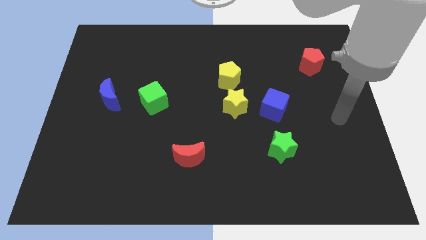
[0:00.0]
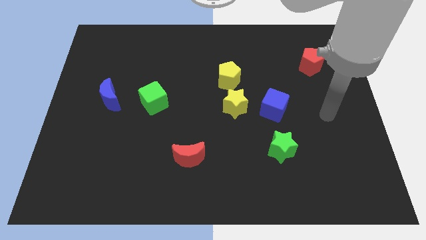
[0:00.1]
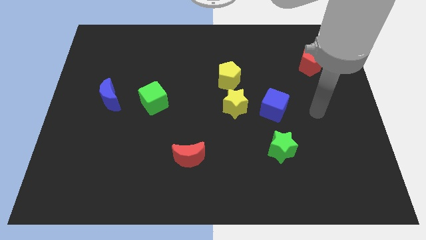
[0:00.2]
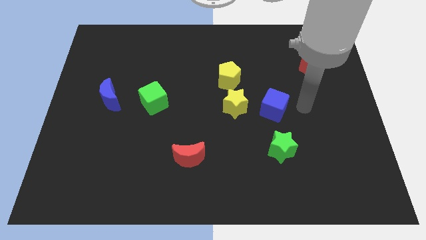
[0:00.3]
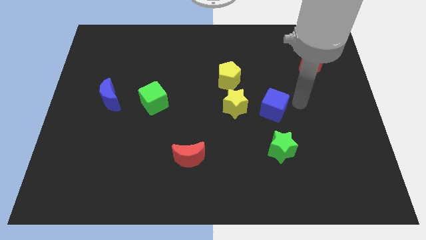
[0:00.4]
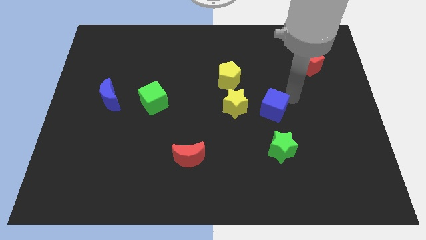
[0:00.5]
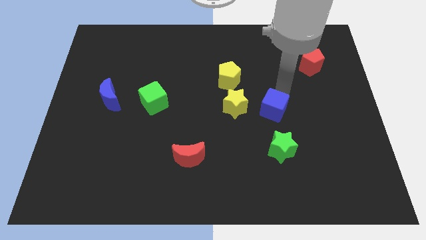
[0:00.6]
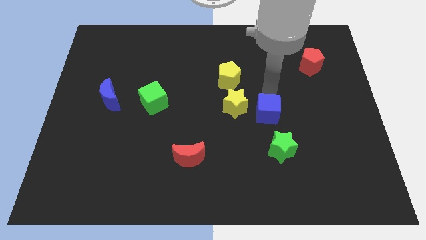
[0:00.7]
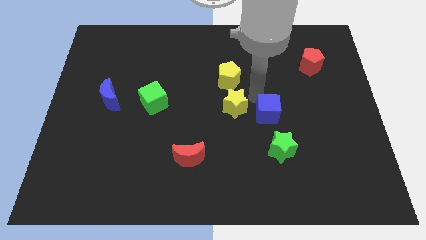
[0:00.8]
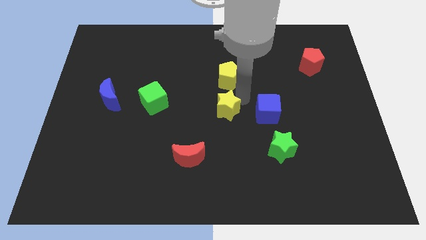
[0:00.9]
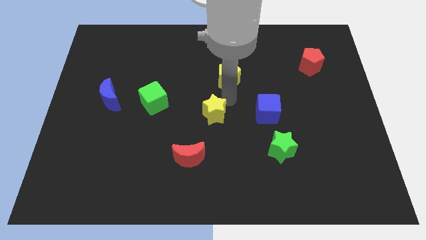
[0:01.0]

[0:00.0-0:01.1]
pull the yellow pentagon apart from the yellow star

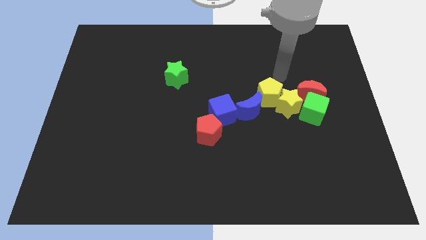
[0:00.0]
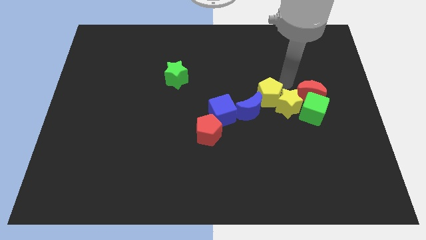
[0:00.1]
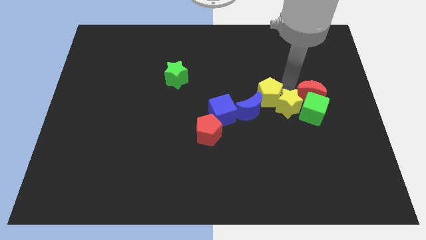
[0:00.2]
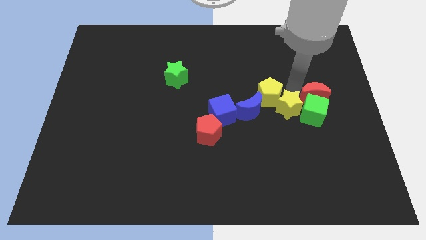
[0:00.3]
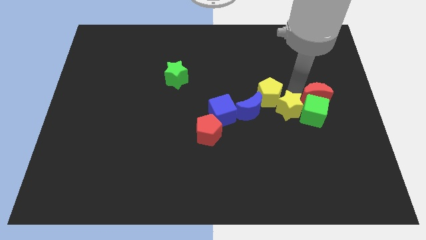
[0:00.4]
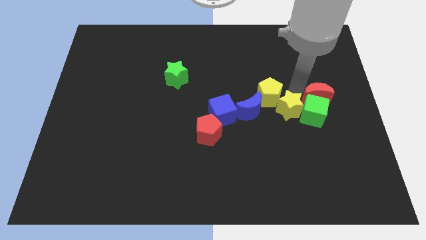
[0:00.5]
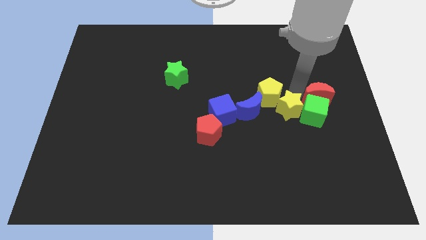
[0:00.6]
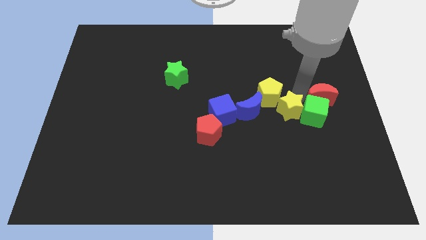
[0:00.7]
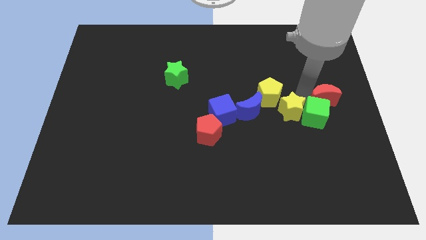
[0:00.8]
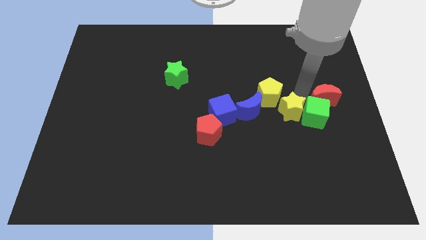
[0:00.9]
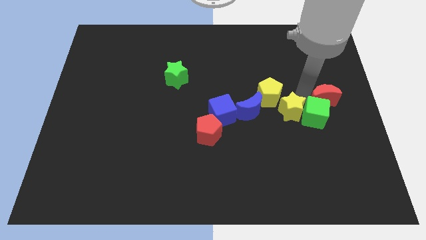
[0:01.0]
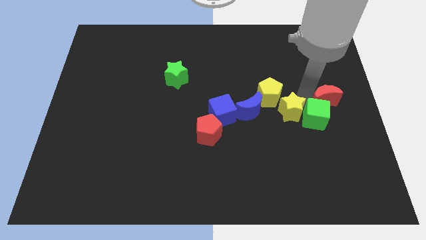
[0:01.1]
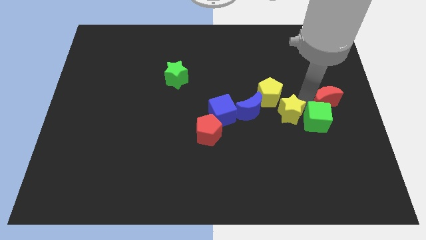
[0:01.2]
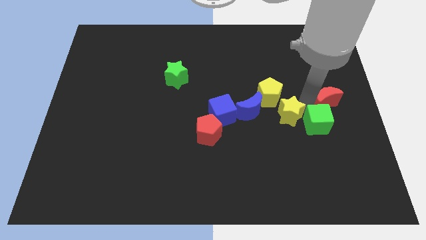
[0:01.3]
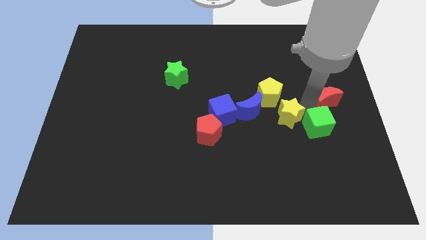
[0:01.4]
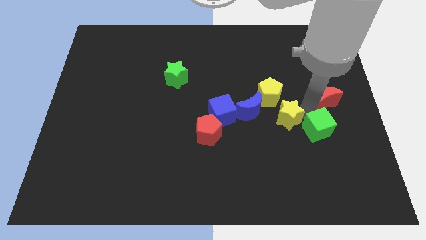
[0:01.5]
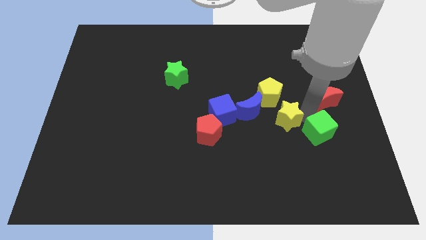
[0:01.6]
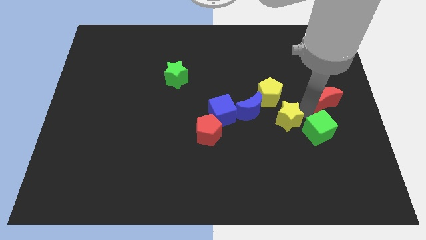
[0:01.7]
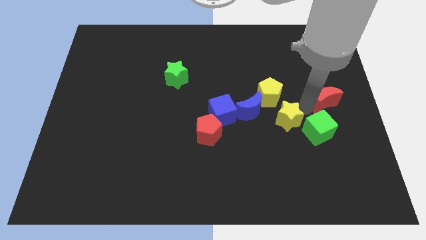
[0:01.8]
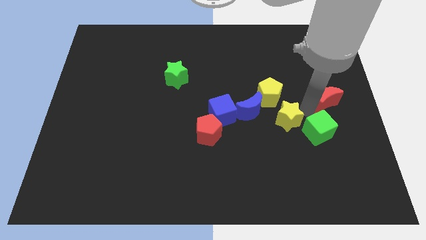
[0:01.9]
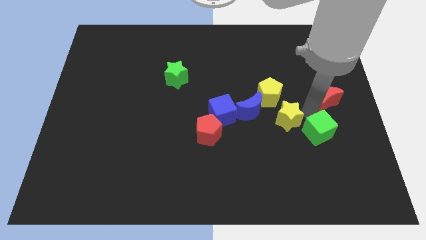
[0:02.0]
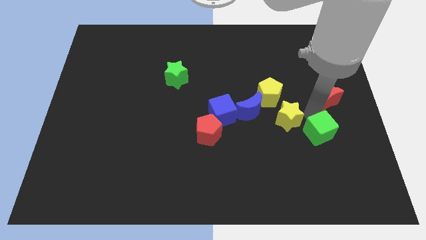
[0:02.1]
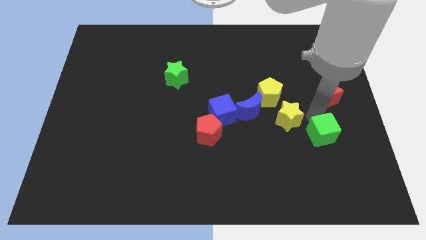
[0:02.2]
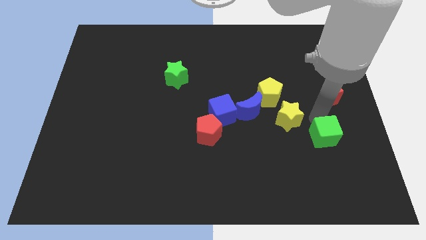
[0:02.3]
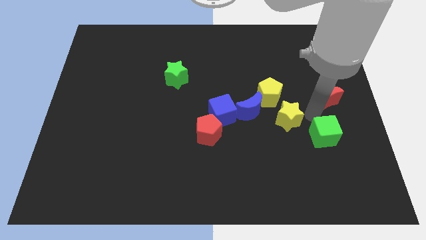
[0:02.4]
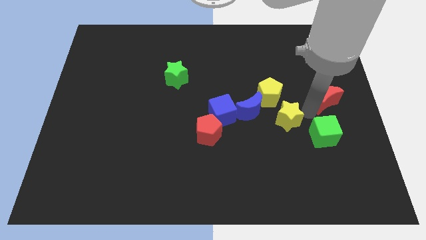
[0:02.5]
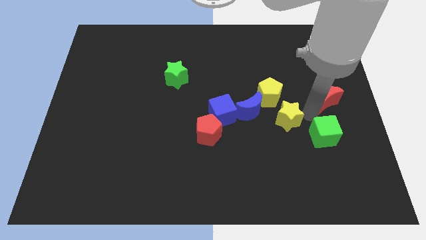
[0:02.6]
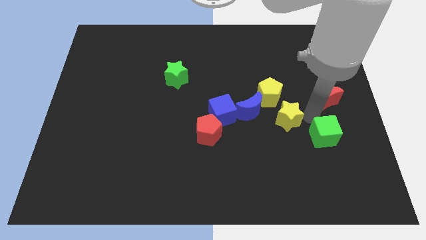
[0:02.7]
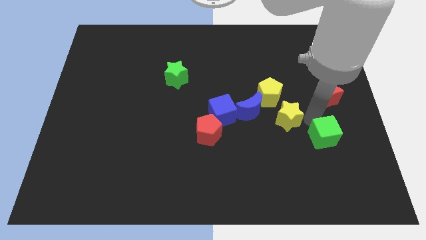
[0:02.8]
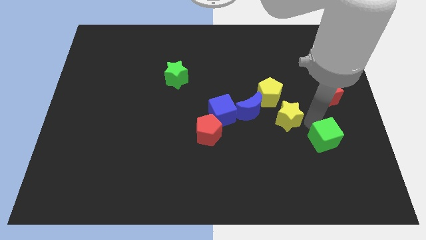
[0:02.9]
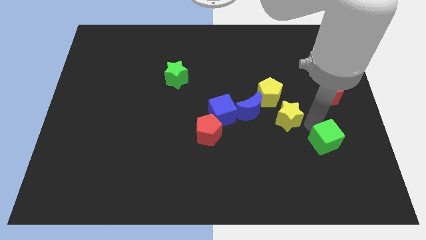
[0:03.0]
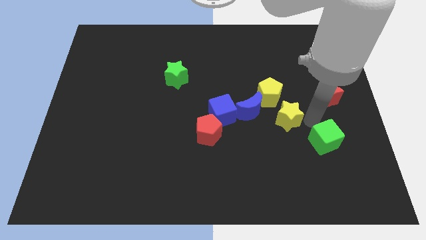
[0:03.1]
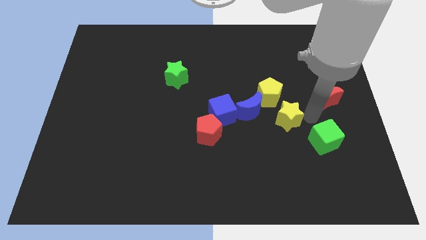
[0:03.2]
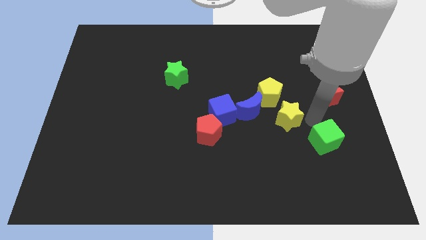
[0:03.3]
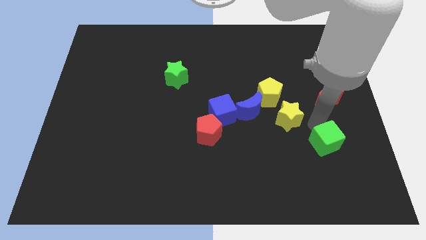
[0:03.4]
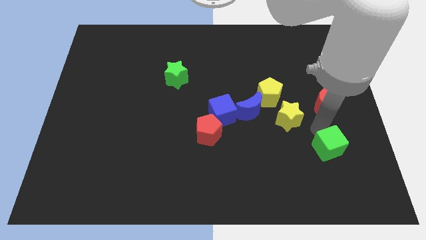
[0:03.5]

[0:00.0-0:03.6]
move the green cube away from the red moon and yellow star

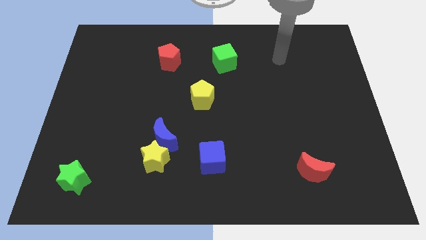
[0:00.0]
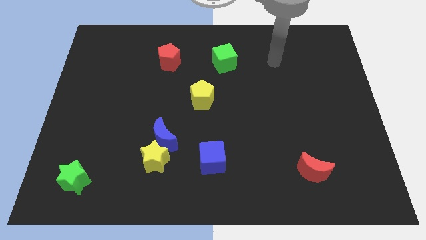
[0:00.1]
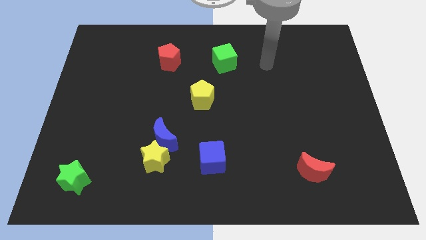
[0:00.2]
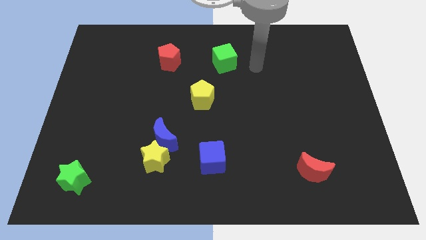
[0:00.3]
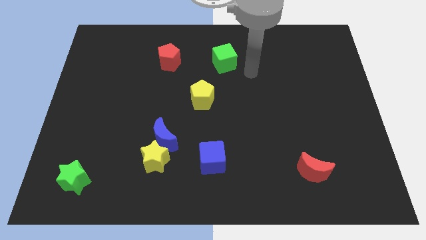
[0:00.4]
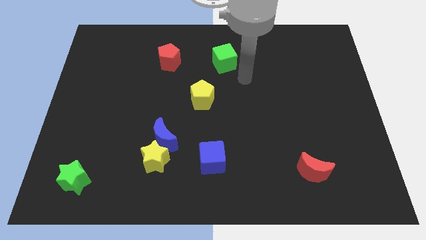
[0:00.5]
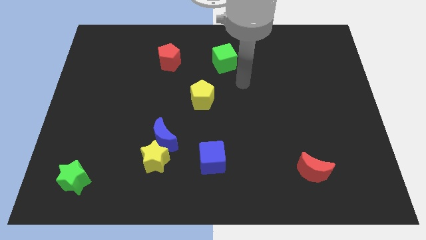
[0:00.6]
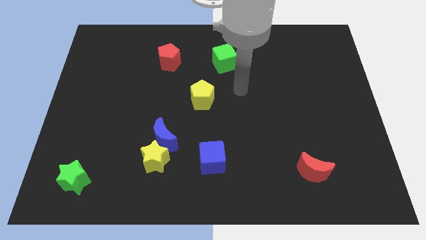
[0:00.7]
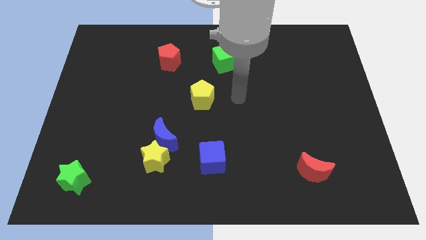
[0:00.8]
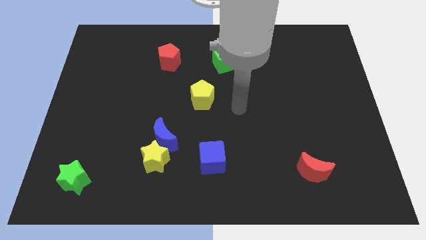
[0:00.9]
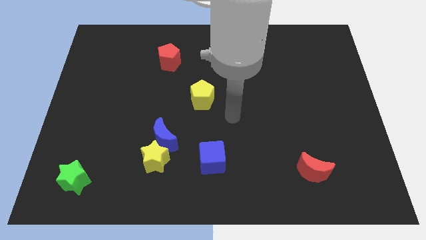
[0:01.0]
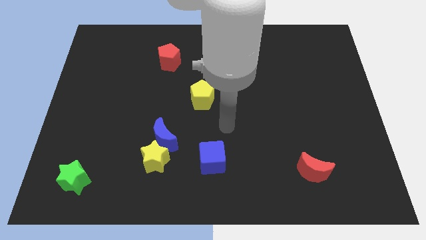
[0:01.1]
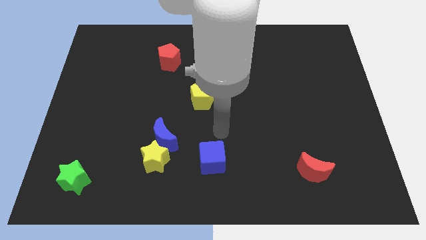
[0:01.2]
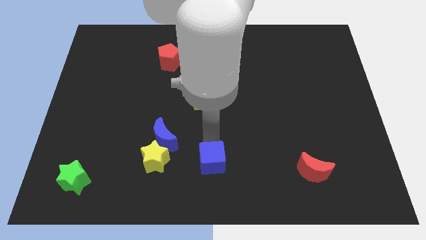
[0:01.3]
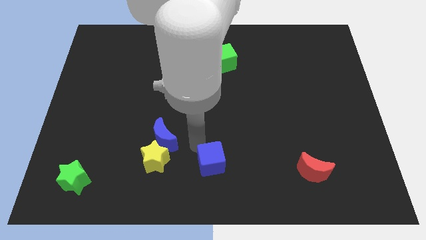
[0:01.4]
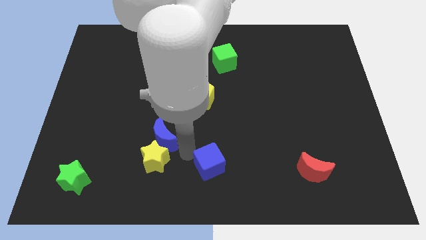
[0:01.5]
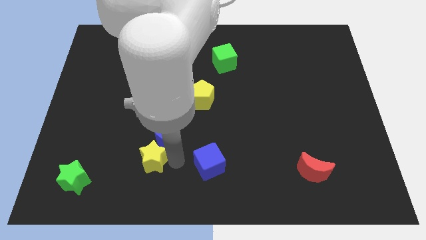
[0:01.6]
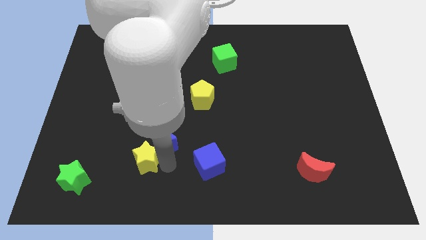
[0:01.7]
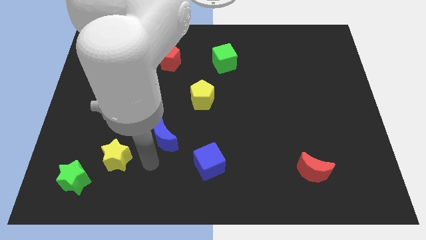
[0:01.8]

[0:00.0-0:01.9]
separate the blue moon from the yellow star

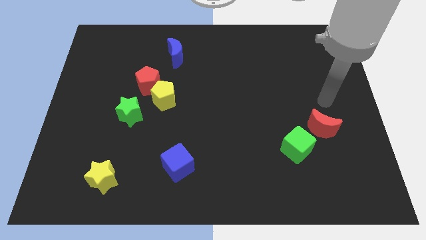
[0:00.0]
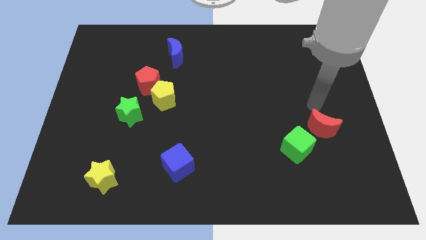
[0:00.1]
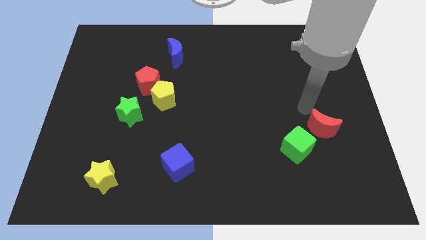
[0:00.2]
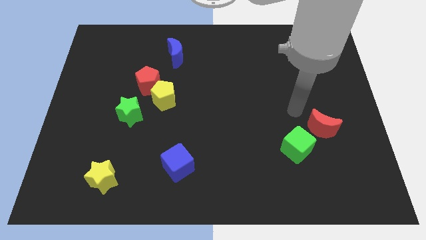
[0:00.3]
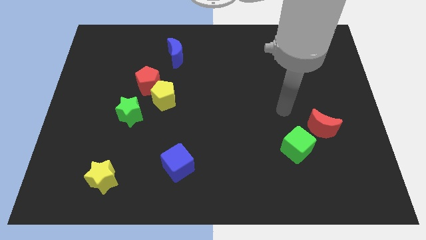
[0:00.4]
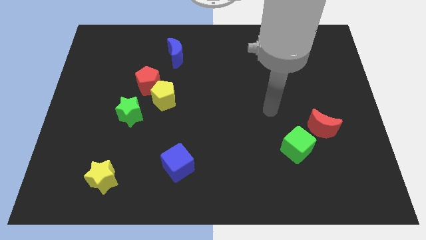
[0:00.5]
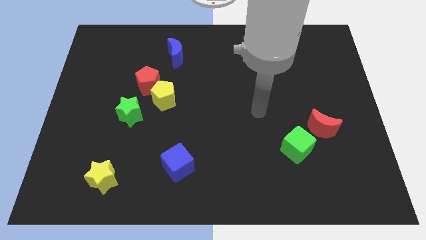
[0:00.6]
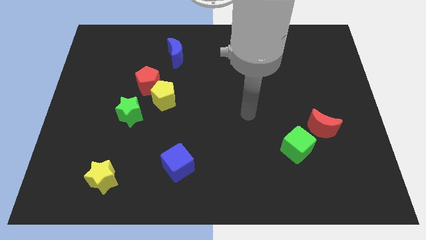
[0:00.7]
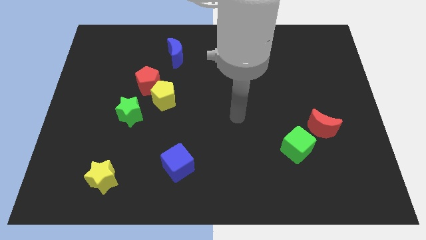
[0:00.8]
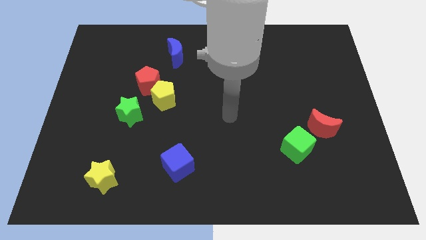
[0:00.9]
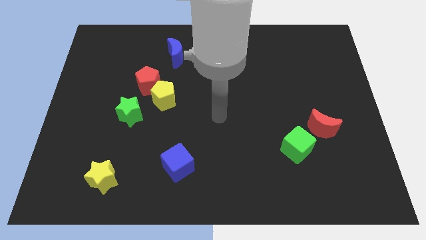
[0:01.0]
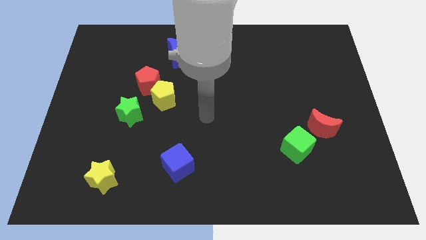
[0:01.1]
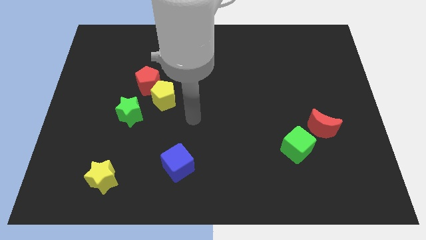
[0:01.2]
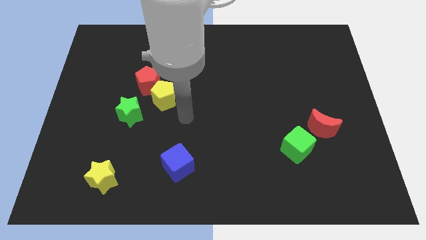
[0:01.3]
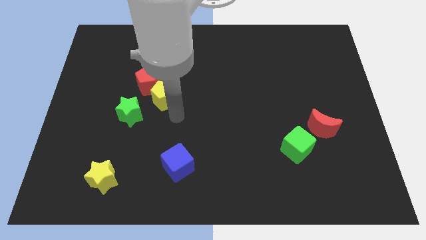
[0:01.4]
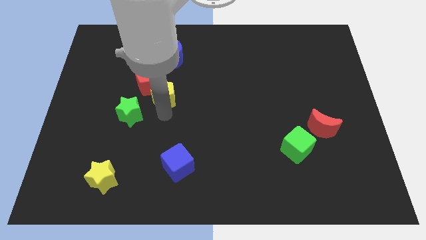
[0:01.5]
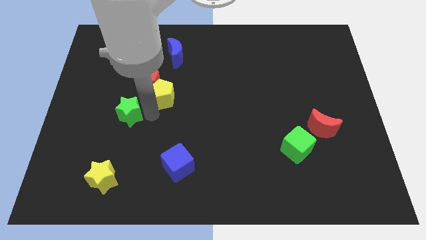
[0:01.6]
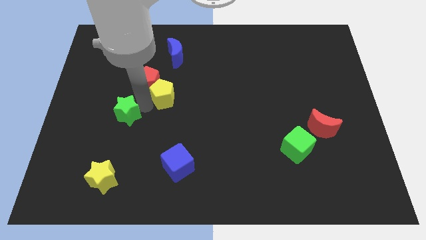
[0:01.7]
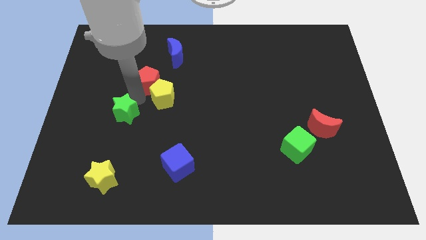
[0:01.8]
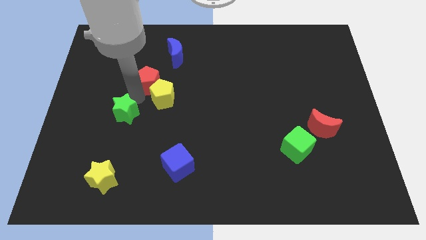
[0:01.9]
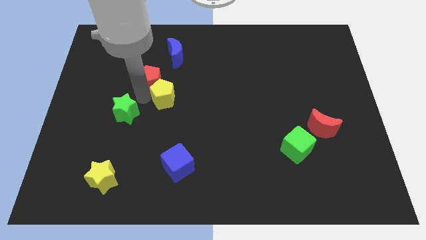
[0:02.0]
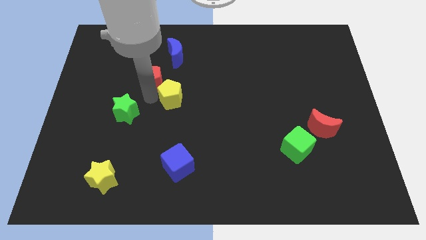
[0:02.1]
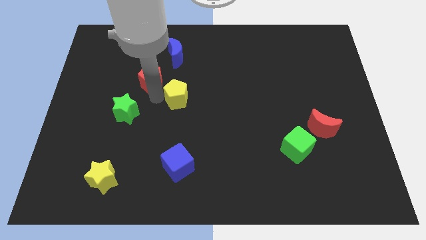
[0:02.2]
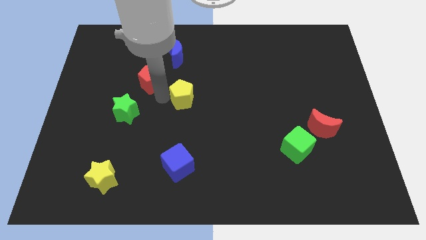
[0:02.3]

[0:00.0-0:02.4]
pull the yellow pentagon apart from the red pentagon and green star

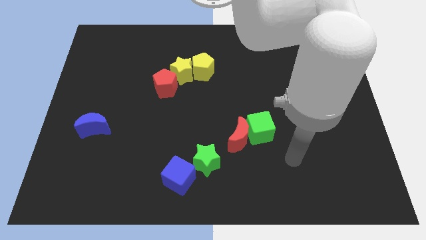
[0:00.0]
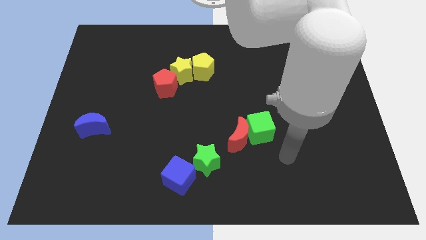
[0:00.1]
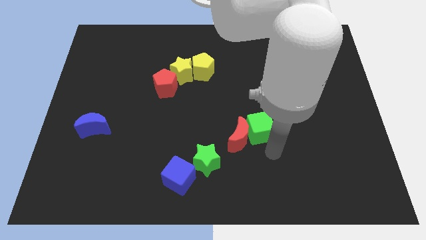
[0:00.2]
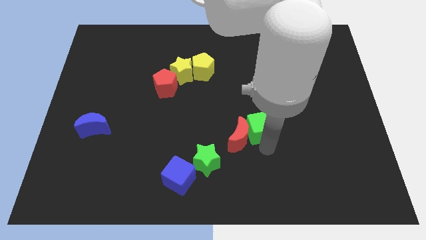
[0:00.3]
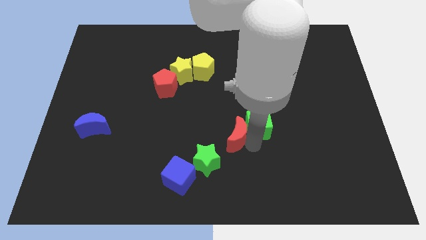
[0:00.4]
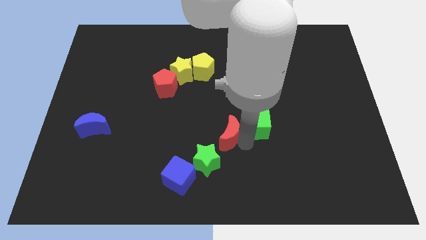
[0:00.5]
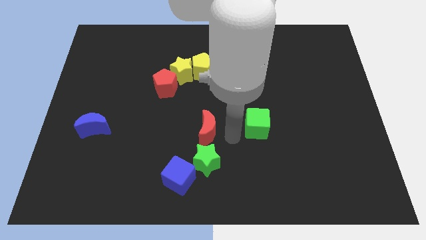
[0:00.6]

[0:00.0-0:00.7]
move the green cube away from the red moon
